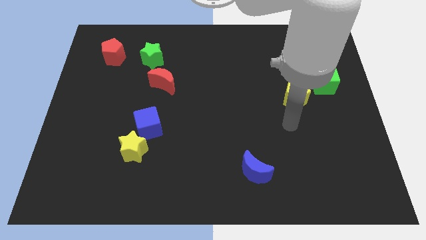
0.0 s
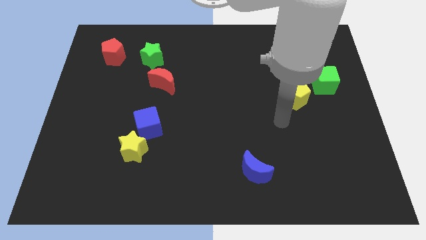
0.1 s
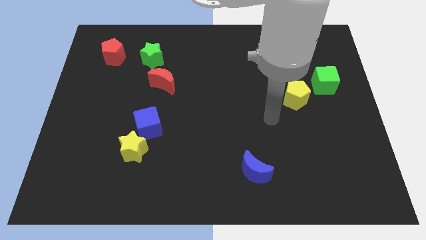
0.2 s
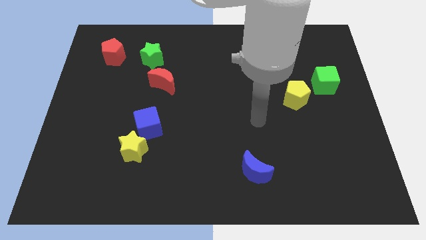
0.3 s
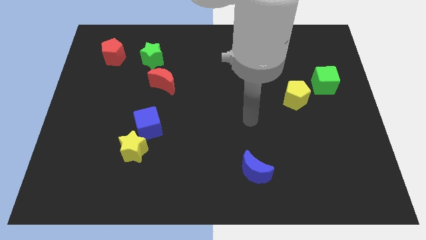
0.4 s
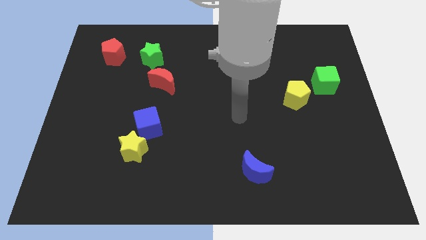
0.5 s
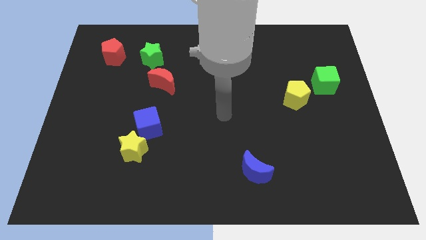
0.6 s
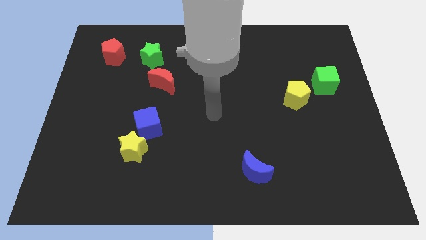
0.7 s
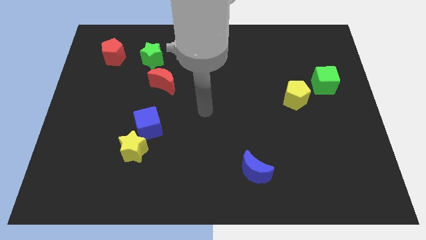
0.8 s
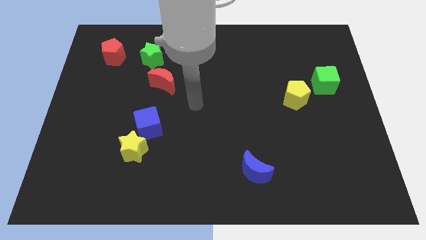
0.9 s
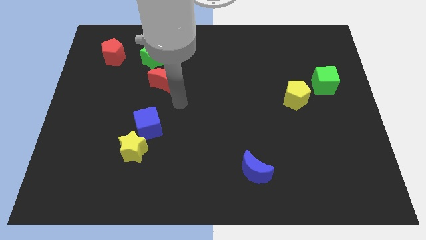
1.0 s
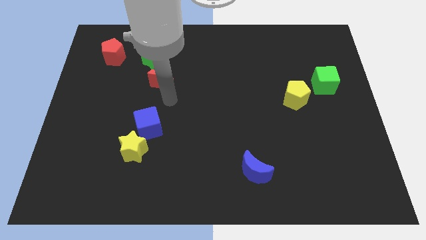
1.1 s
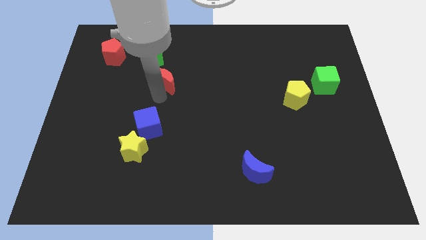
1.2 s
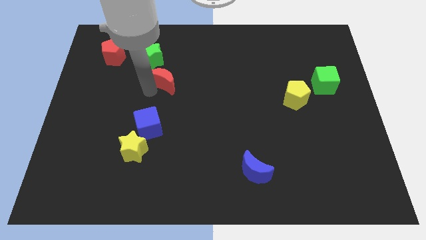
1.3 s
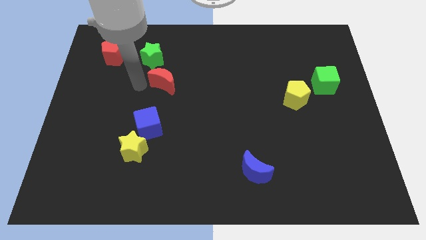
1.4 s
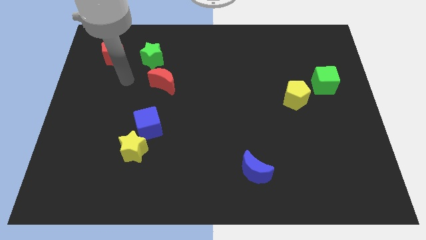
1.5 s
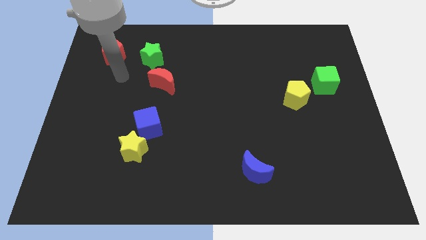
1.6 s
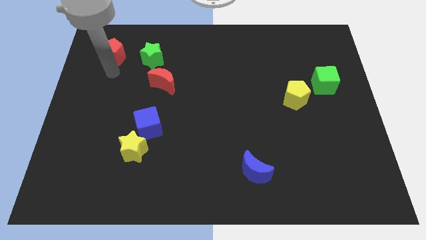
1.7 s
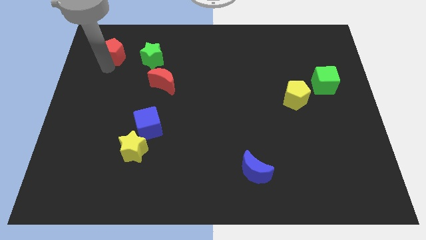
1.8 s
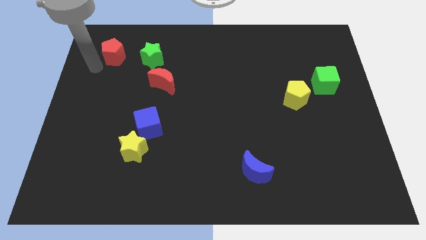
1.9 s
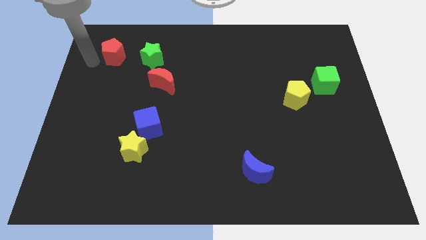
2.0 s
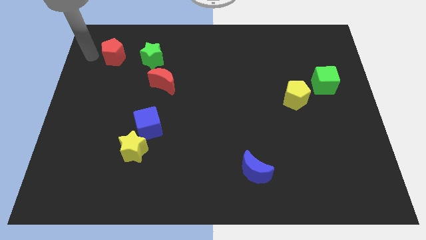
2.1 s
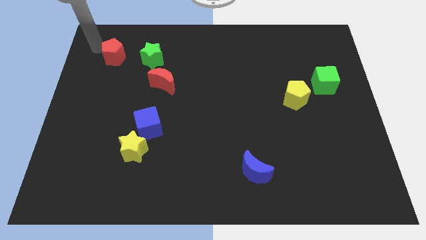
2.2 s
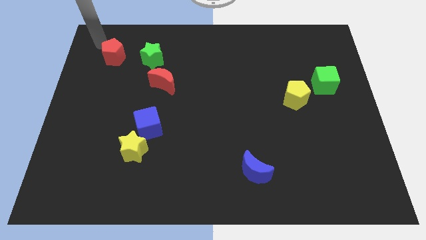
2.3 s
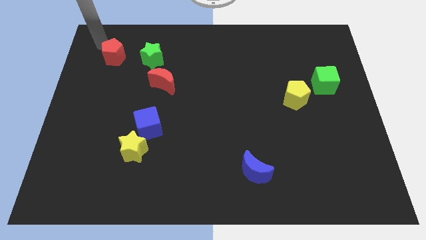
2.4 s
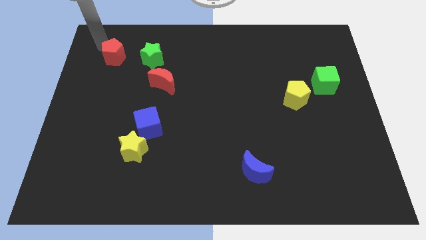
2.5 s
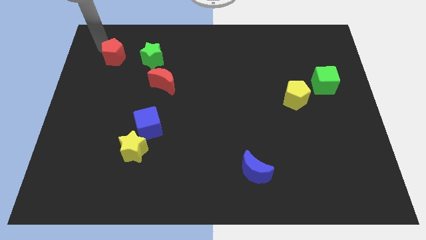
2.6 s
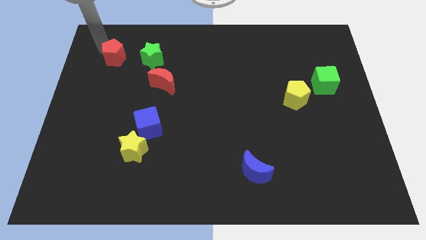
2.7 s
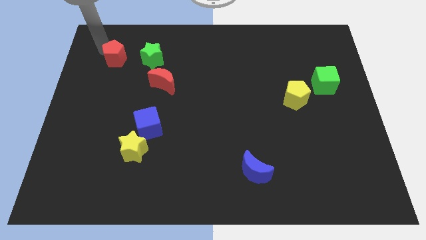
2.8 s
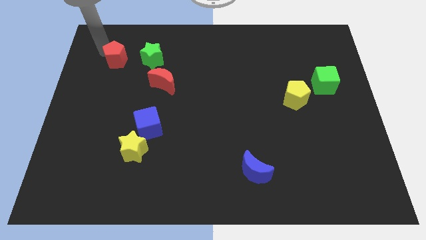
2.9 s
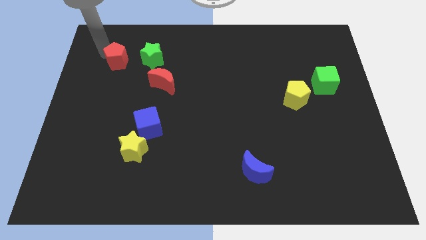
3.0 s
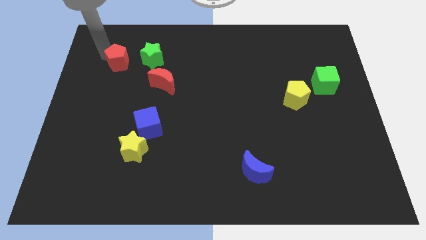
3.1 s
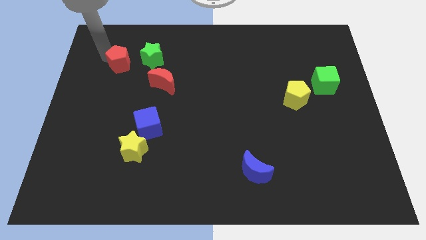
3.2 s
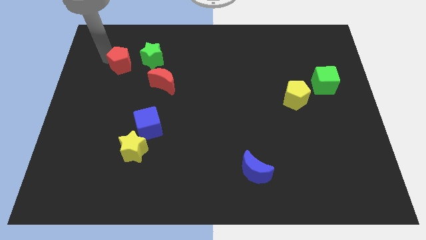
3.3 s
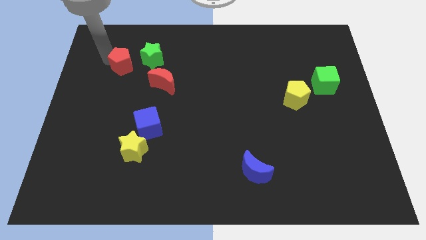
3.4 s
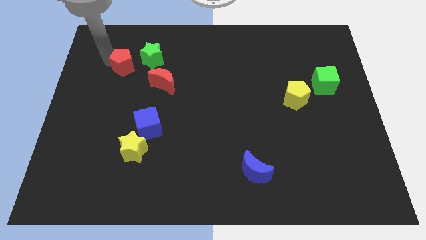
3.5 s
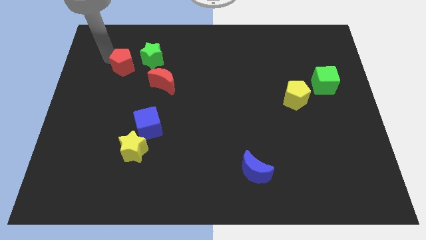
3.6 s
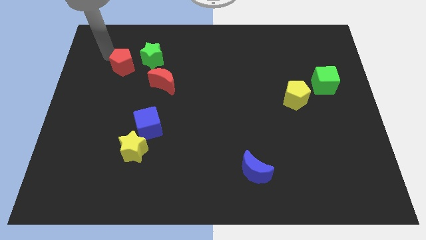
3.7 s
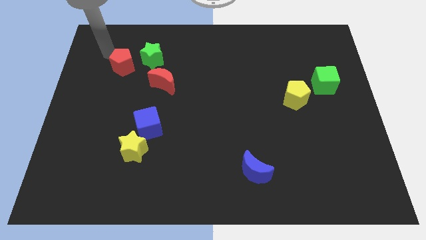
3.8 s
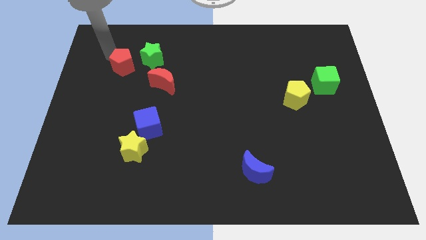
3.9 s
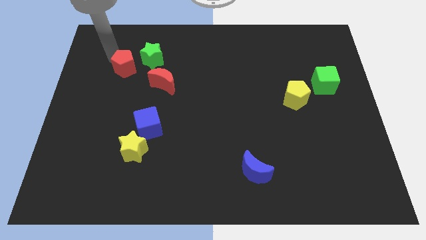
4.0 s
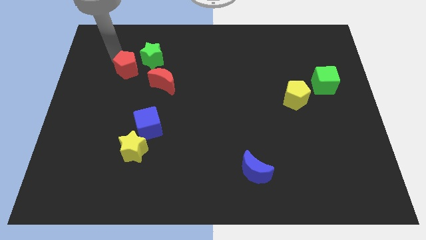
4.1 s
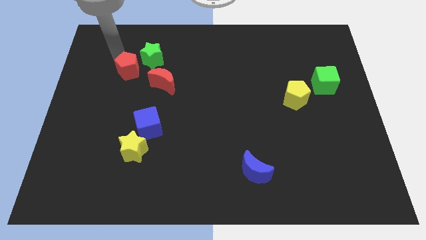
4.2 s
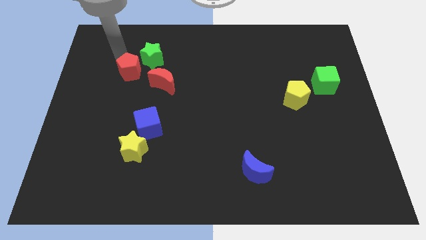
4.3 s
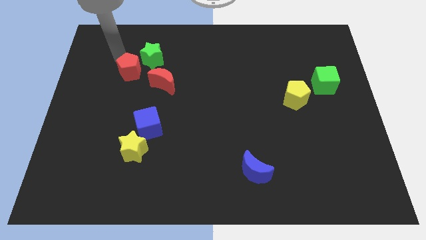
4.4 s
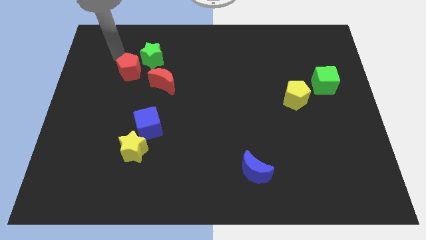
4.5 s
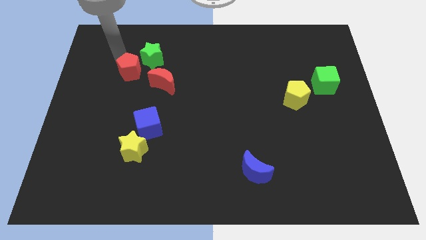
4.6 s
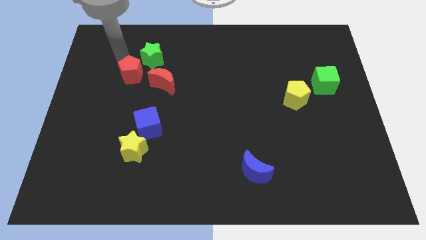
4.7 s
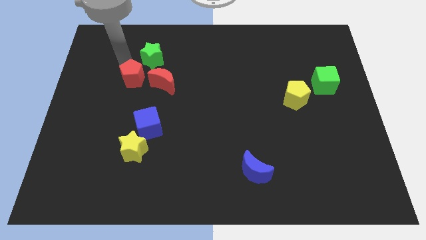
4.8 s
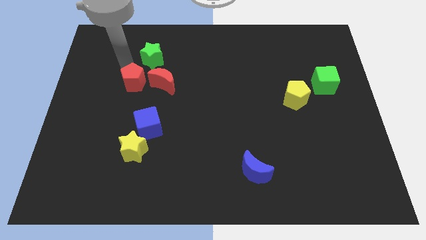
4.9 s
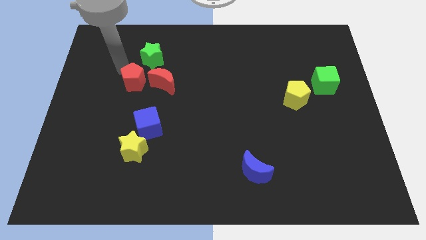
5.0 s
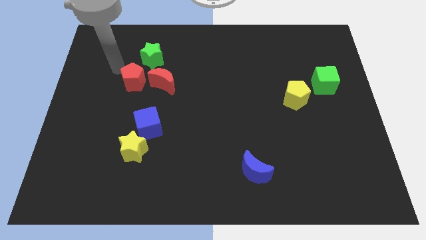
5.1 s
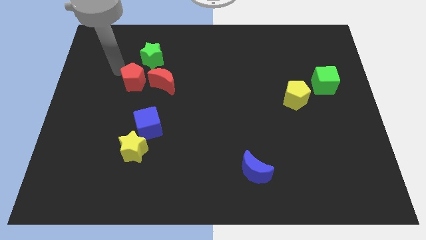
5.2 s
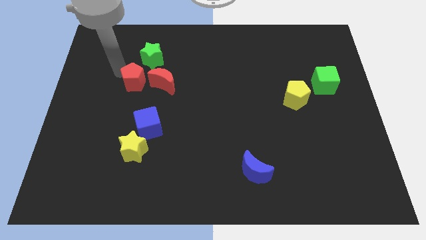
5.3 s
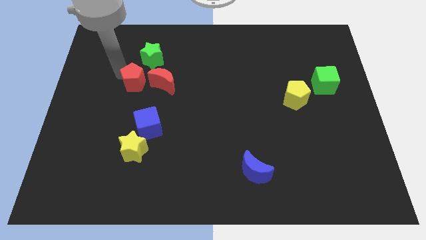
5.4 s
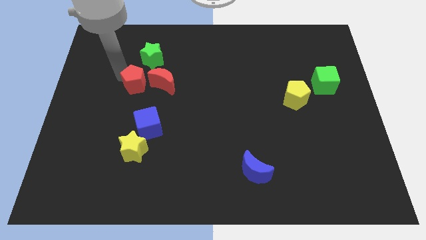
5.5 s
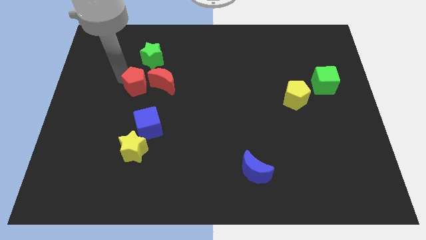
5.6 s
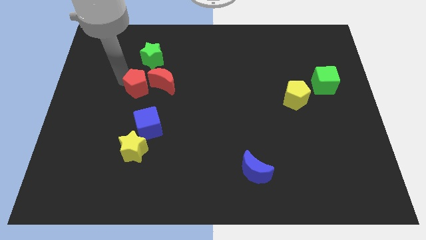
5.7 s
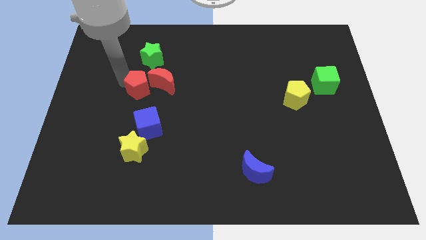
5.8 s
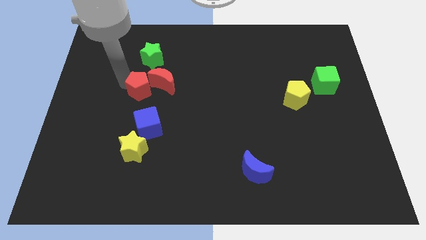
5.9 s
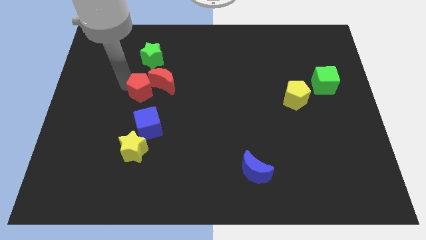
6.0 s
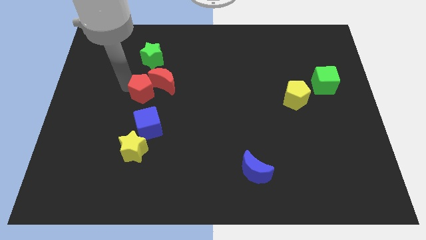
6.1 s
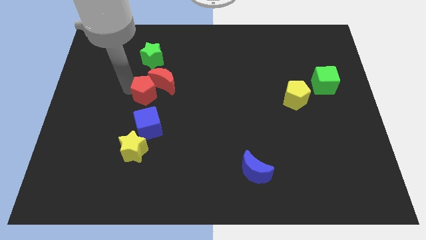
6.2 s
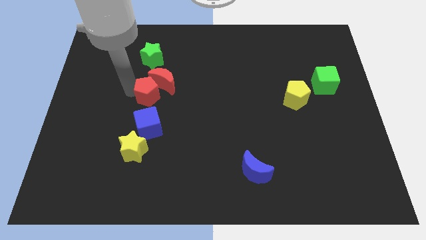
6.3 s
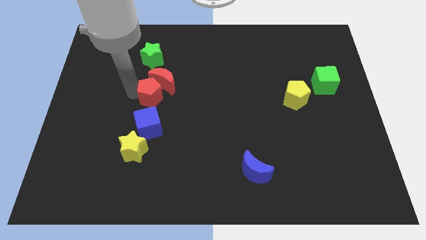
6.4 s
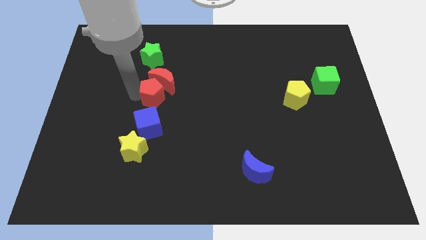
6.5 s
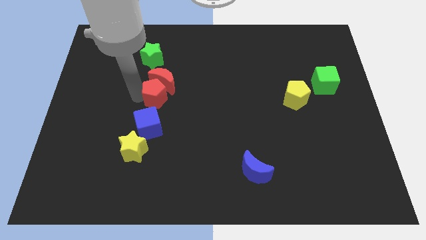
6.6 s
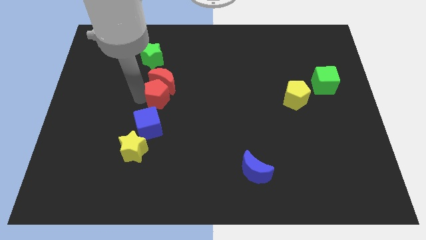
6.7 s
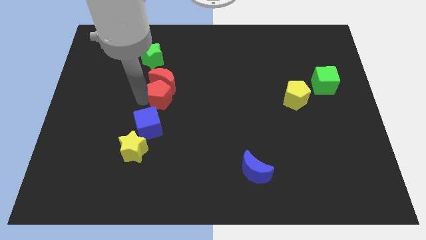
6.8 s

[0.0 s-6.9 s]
put the red pentagon to the middle

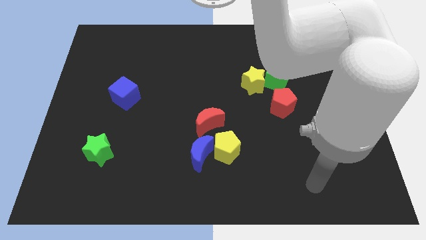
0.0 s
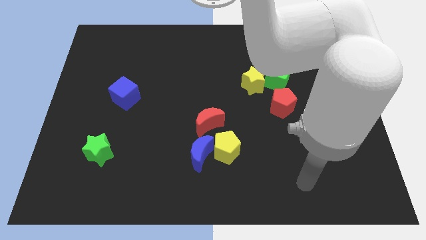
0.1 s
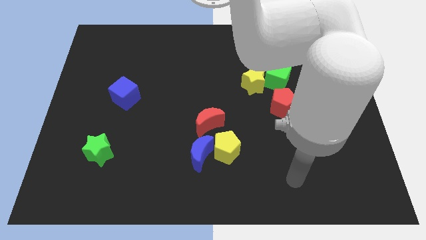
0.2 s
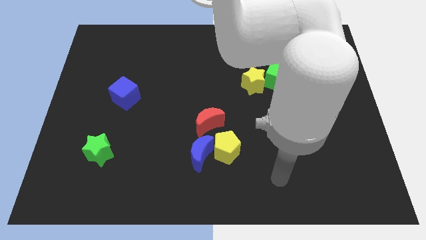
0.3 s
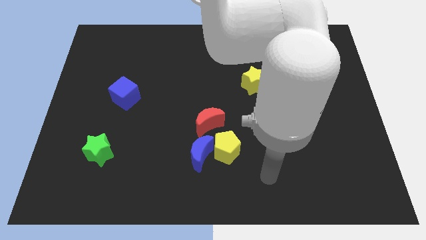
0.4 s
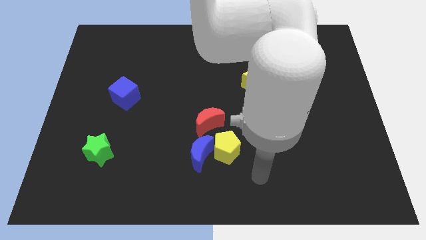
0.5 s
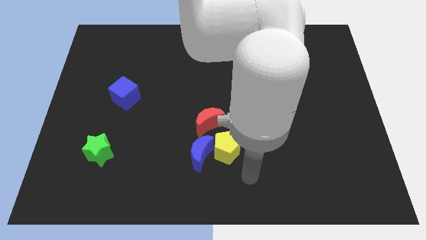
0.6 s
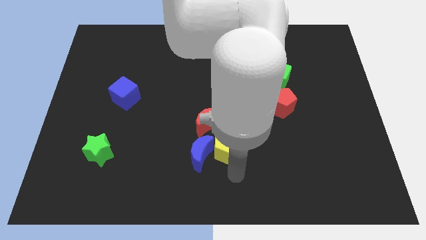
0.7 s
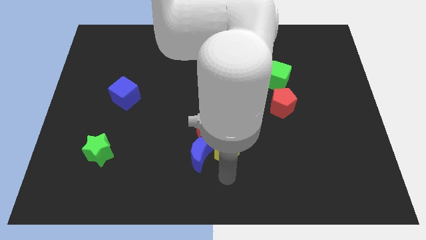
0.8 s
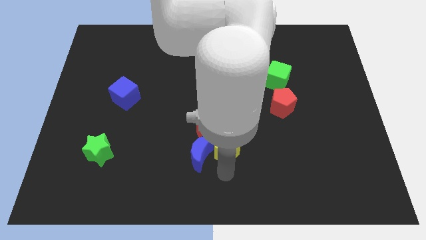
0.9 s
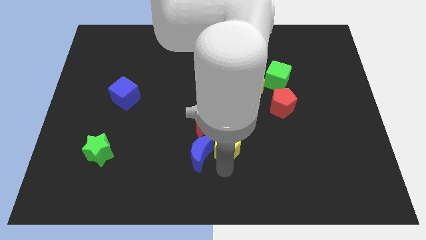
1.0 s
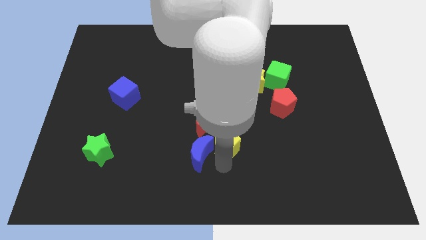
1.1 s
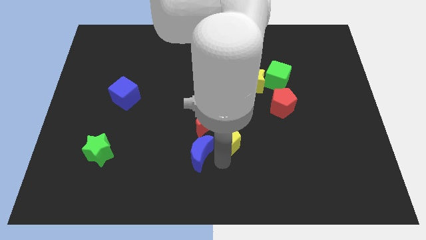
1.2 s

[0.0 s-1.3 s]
put the yellow pentagon to the center
